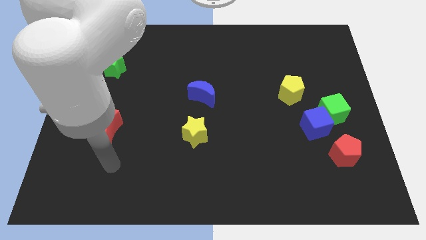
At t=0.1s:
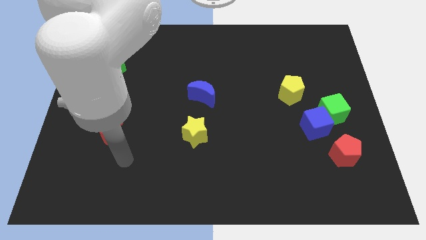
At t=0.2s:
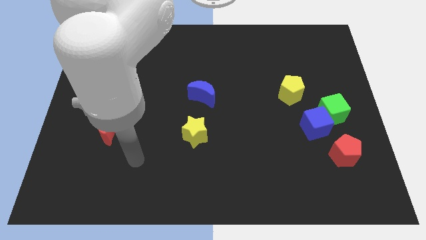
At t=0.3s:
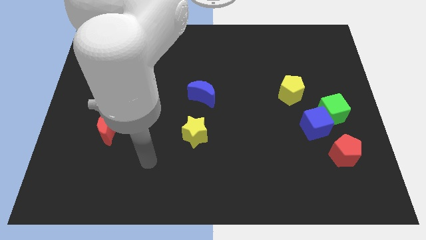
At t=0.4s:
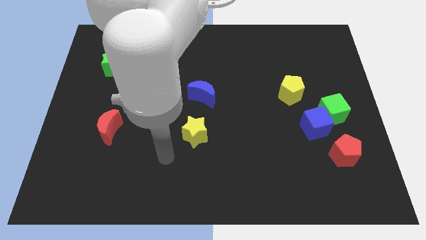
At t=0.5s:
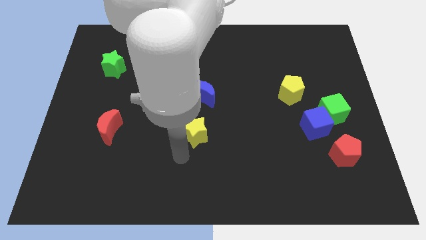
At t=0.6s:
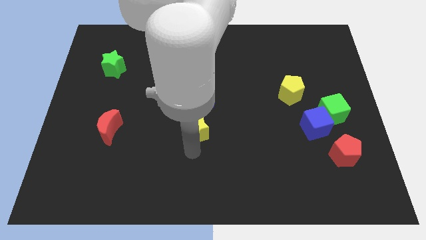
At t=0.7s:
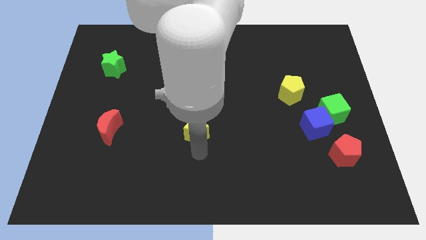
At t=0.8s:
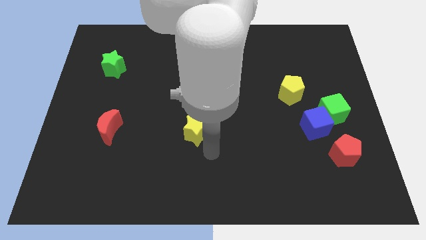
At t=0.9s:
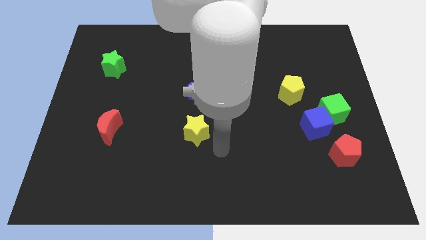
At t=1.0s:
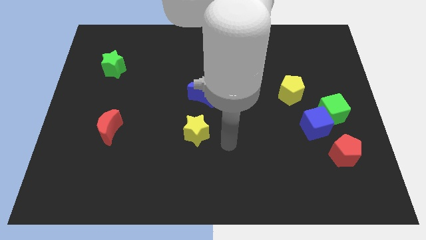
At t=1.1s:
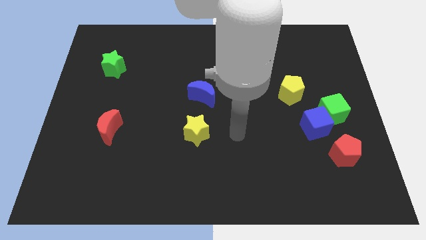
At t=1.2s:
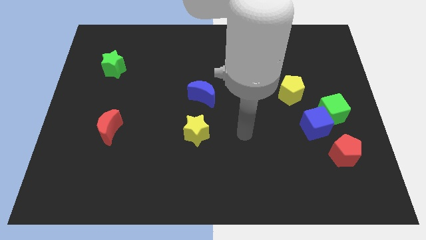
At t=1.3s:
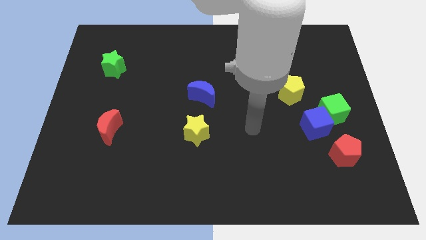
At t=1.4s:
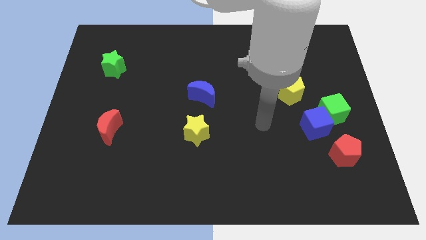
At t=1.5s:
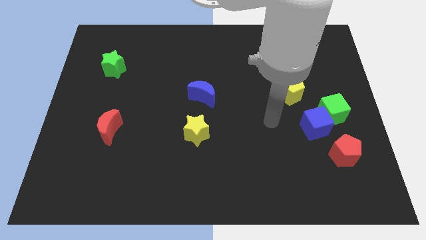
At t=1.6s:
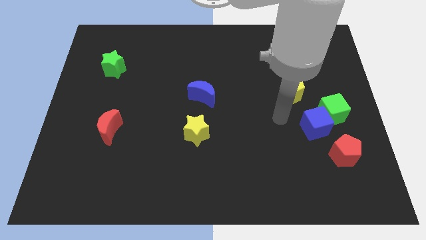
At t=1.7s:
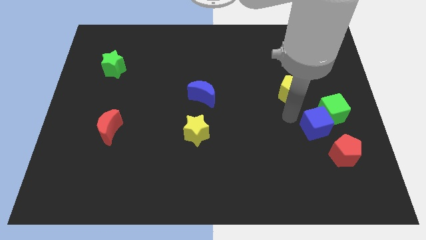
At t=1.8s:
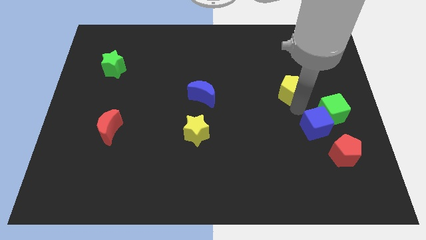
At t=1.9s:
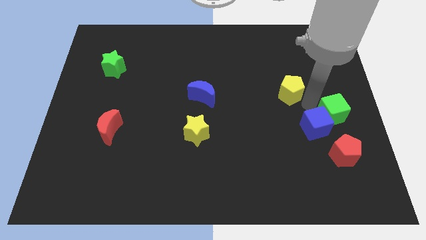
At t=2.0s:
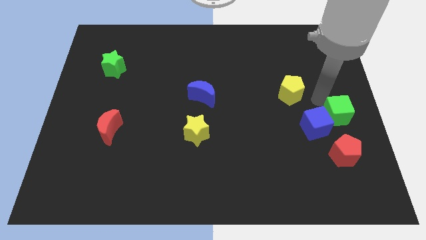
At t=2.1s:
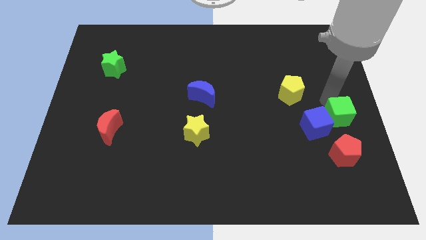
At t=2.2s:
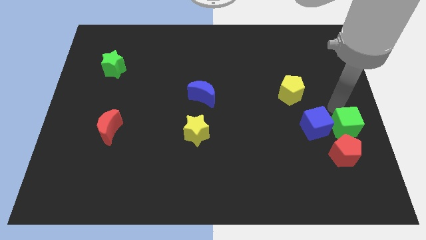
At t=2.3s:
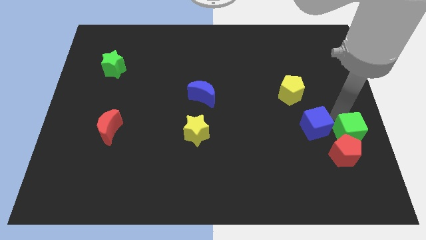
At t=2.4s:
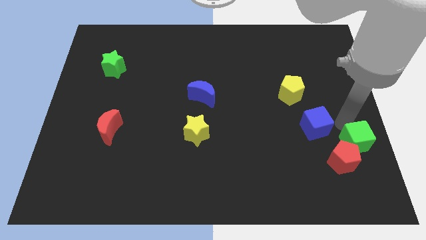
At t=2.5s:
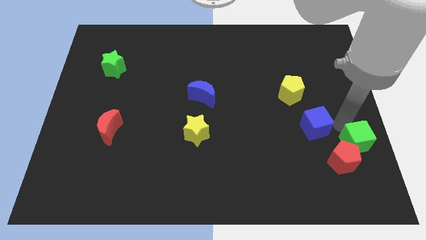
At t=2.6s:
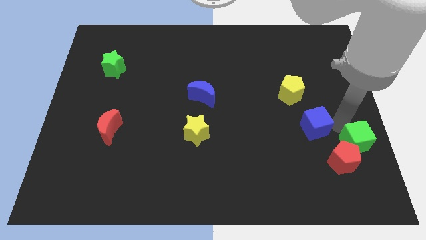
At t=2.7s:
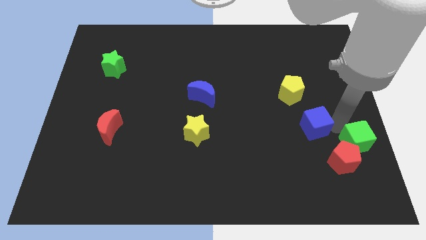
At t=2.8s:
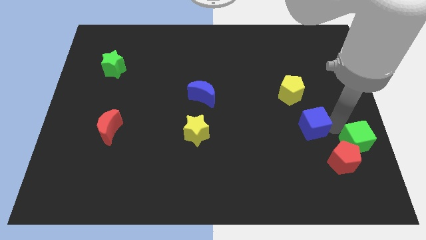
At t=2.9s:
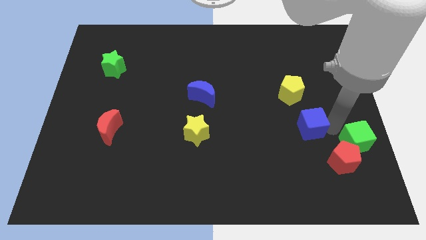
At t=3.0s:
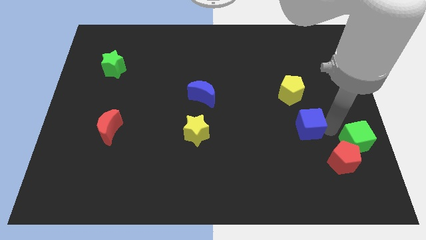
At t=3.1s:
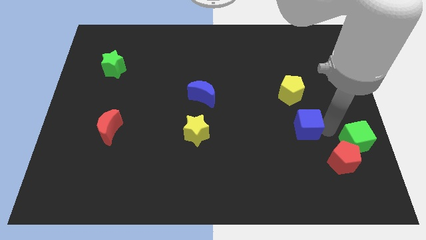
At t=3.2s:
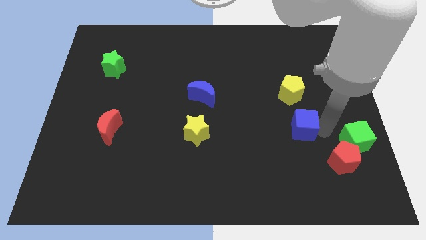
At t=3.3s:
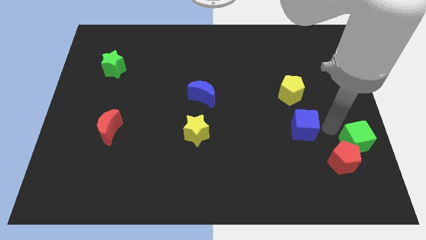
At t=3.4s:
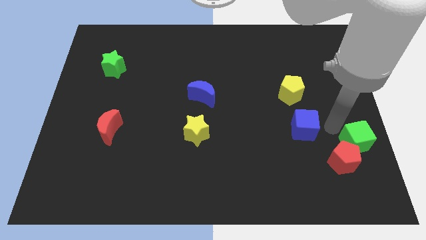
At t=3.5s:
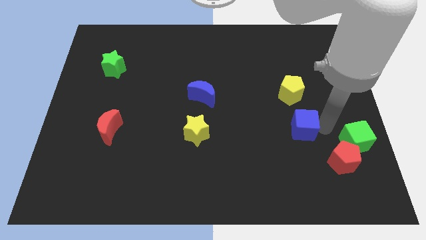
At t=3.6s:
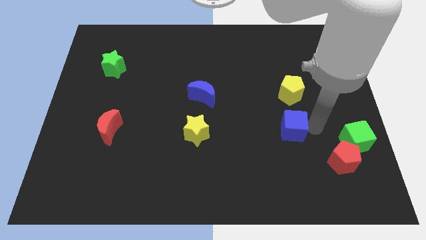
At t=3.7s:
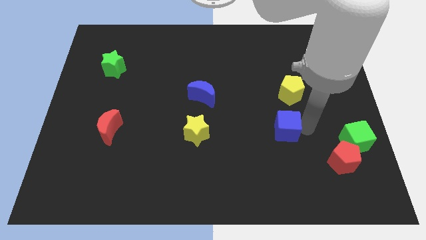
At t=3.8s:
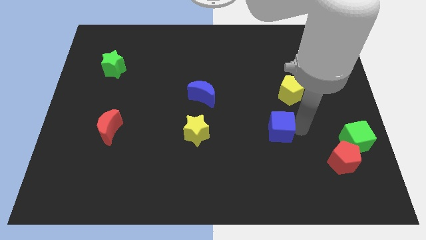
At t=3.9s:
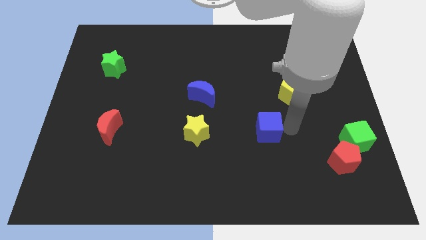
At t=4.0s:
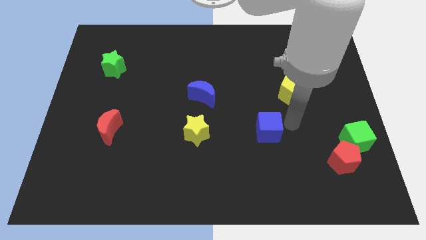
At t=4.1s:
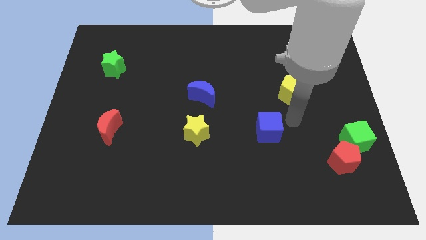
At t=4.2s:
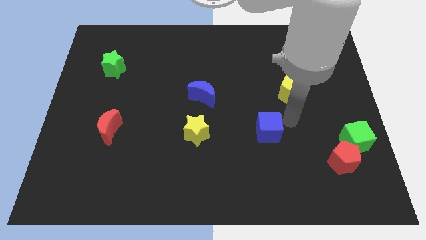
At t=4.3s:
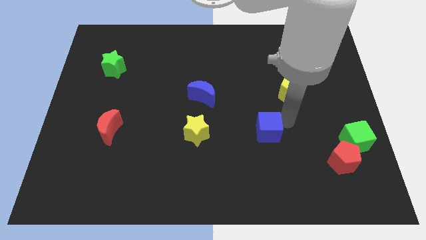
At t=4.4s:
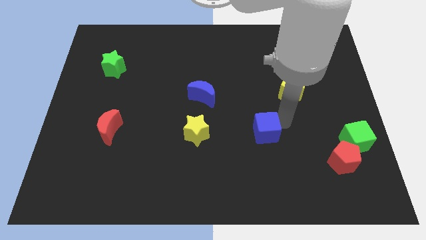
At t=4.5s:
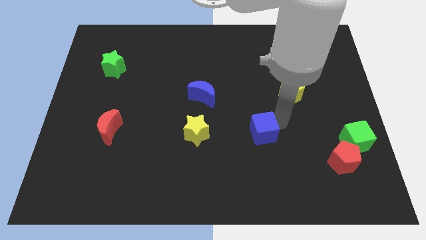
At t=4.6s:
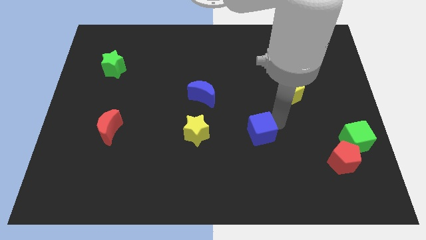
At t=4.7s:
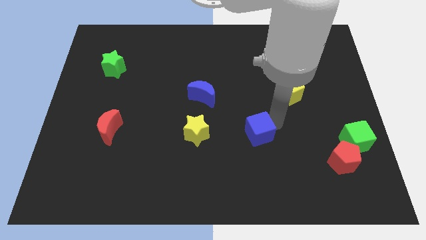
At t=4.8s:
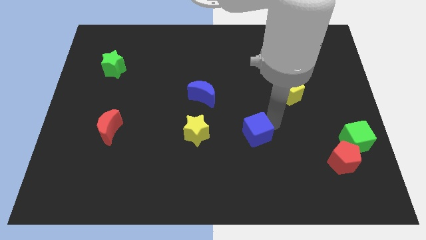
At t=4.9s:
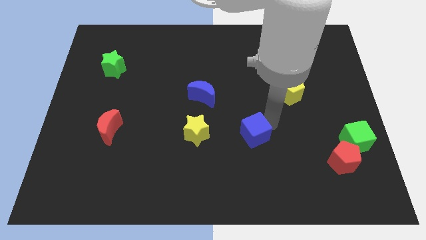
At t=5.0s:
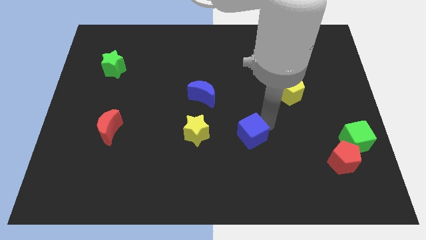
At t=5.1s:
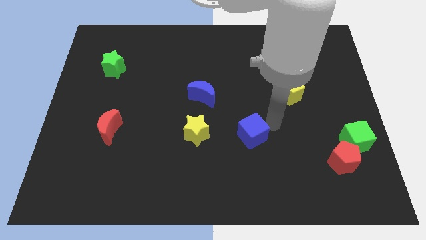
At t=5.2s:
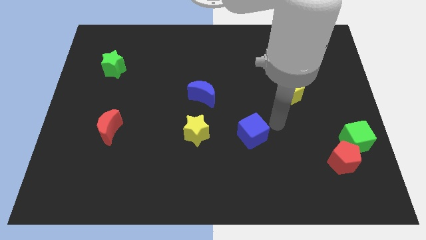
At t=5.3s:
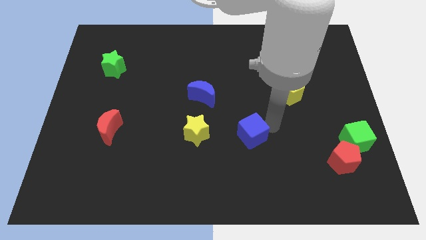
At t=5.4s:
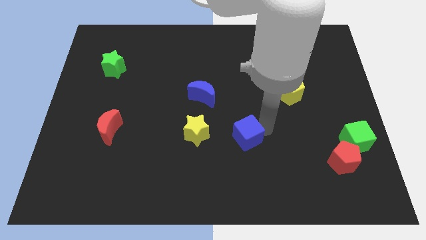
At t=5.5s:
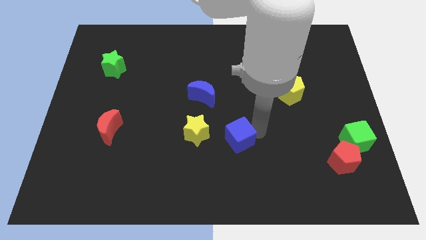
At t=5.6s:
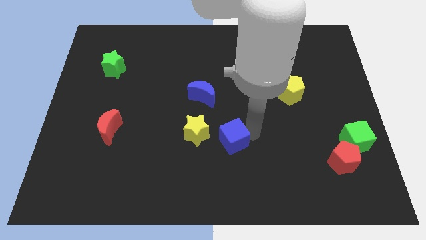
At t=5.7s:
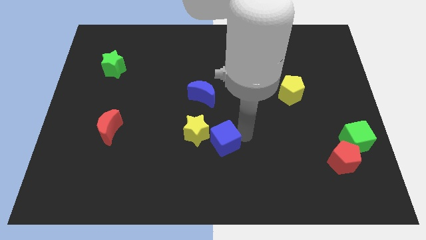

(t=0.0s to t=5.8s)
push the blue cube to the left

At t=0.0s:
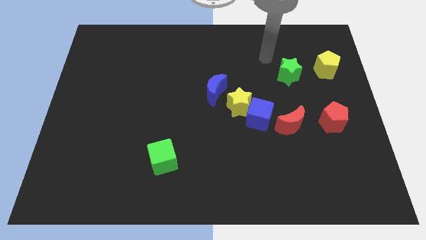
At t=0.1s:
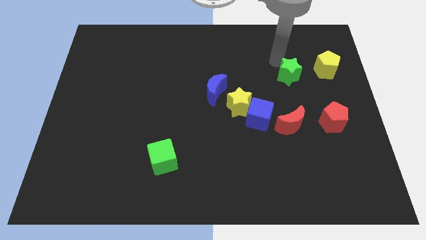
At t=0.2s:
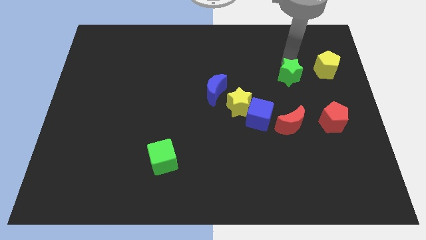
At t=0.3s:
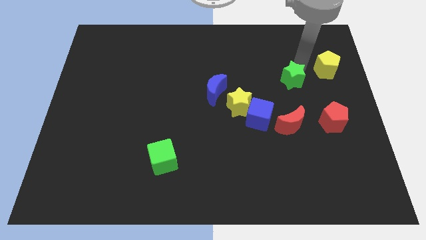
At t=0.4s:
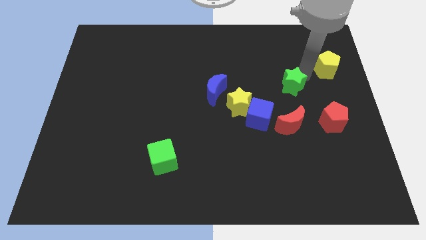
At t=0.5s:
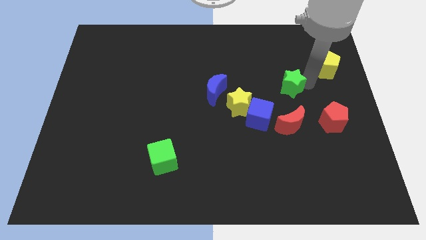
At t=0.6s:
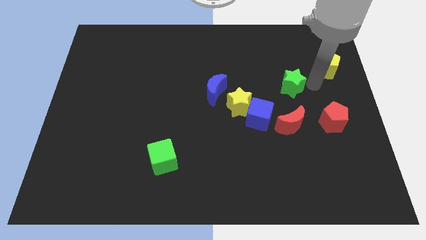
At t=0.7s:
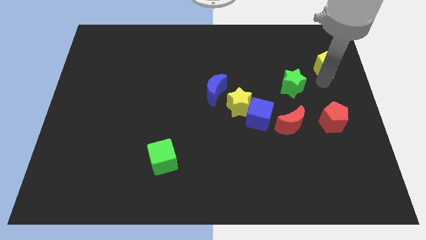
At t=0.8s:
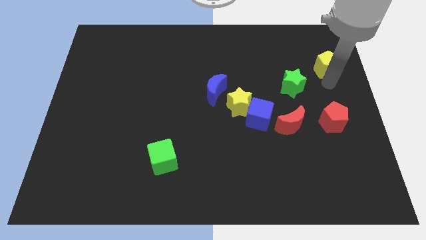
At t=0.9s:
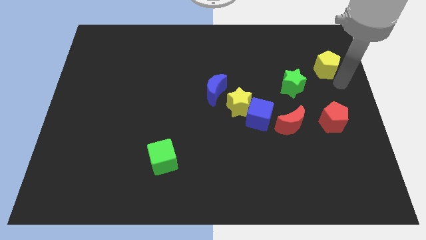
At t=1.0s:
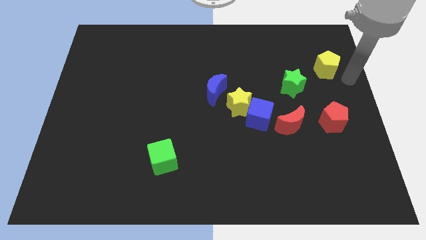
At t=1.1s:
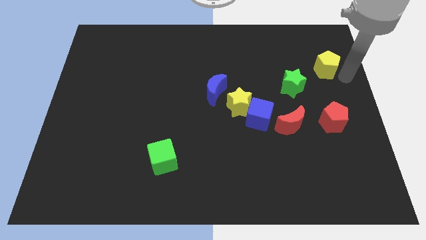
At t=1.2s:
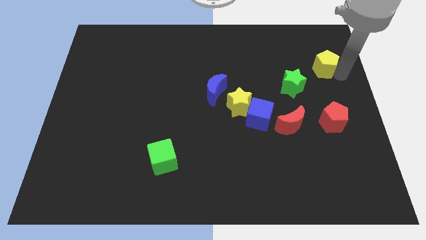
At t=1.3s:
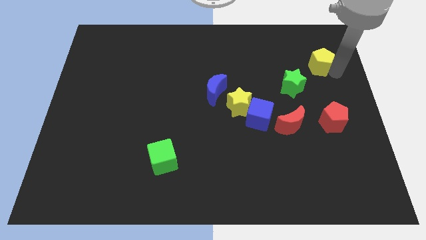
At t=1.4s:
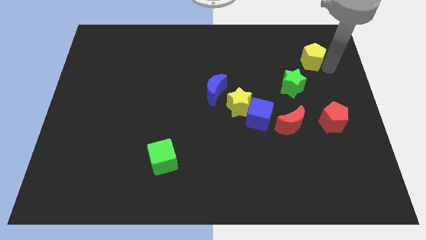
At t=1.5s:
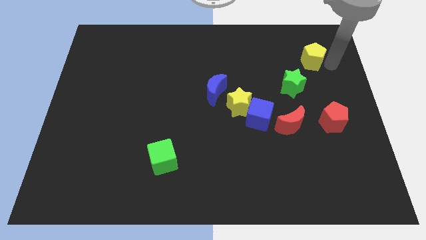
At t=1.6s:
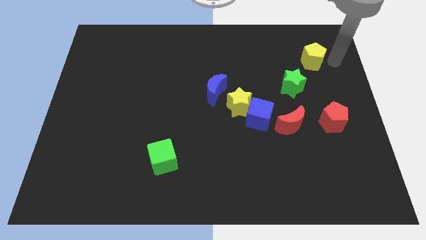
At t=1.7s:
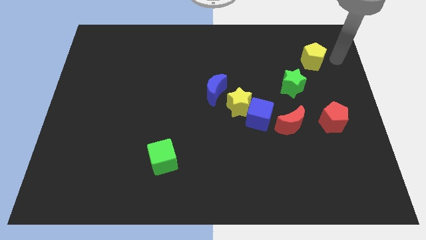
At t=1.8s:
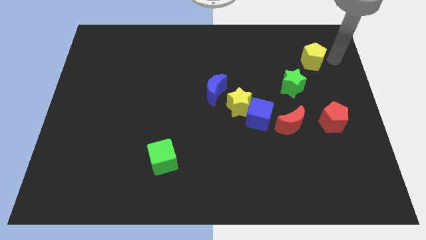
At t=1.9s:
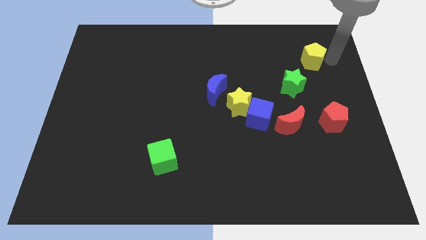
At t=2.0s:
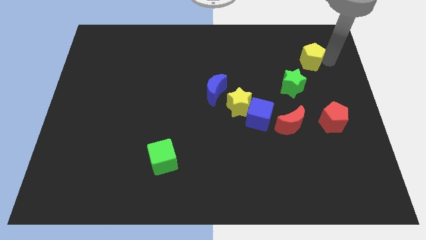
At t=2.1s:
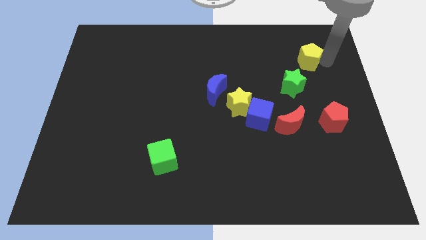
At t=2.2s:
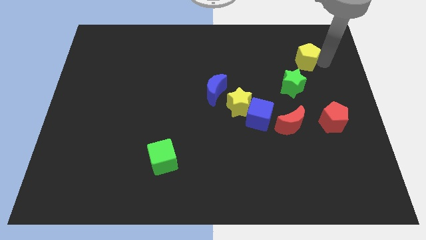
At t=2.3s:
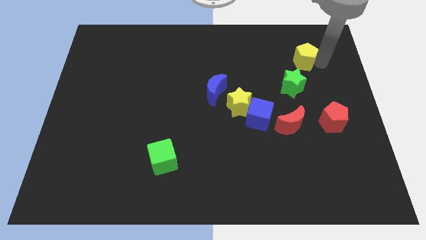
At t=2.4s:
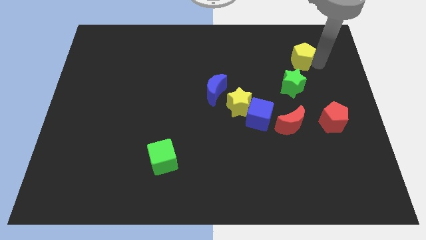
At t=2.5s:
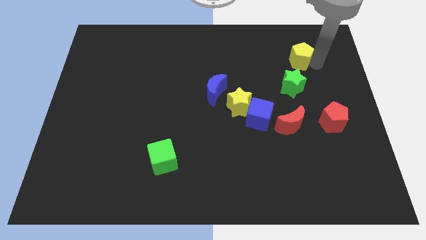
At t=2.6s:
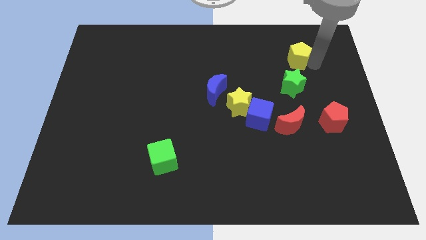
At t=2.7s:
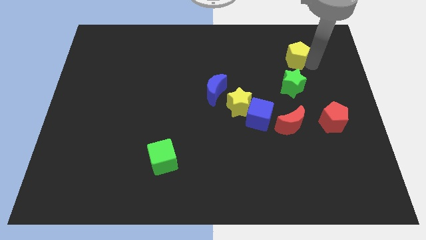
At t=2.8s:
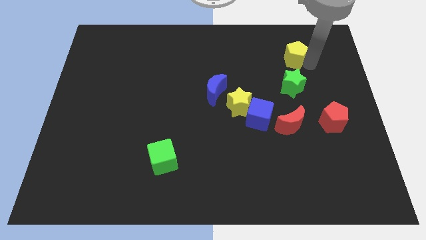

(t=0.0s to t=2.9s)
push the yellow pentagon slightly left
